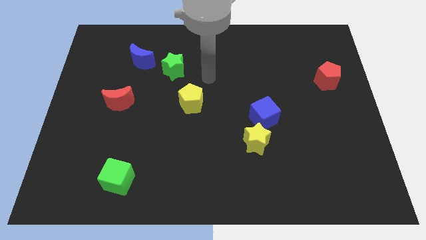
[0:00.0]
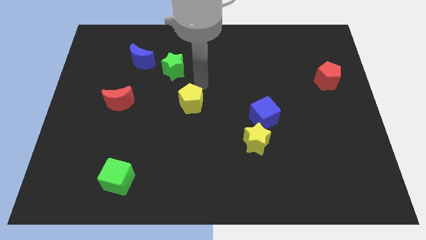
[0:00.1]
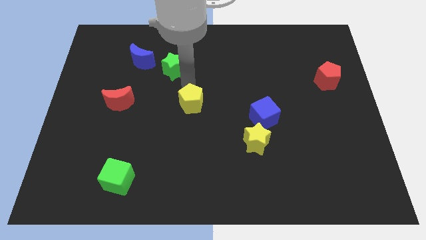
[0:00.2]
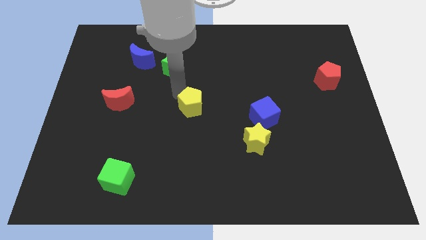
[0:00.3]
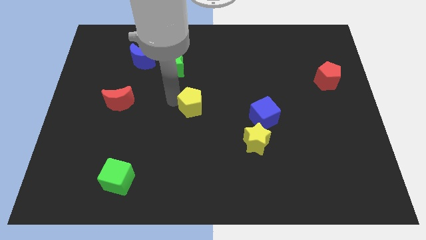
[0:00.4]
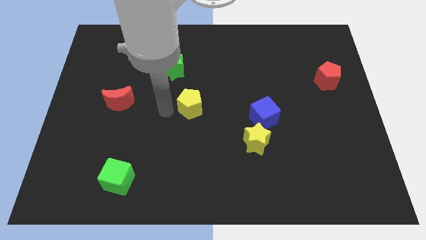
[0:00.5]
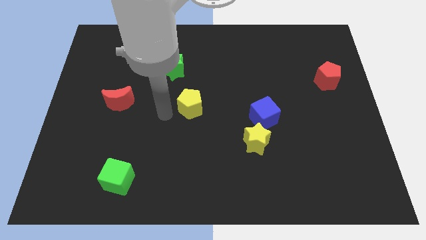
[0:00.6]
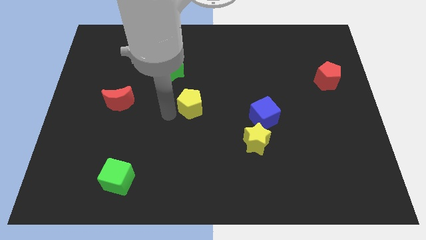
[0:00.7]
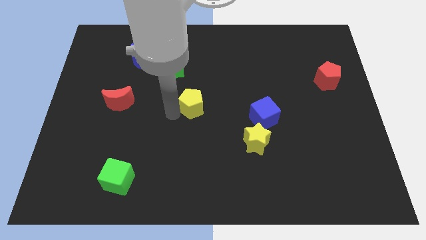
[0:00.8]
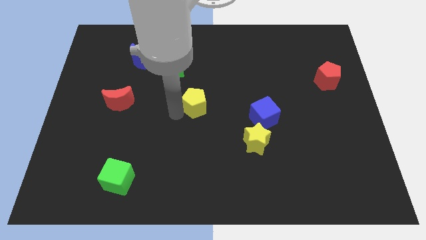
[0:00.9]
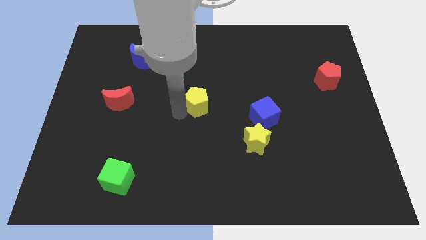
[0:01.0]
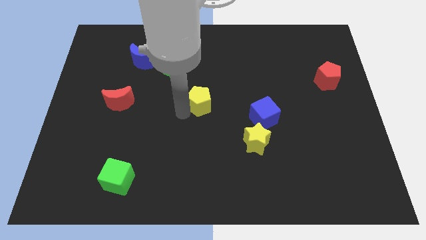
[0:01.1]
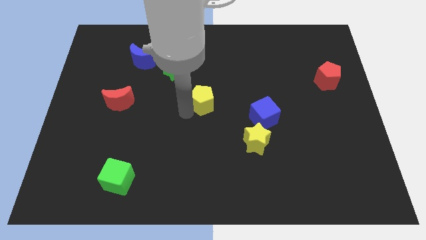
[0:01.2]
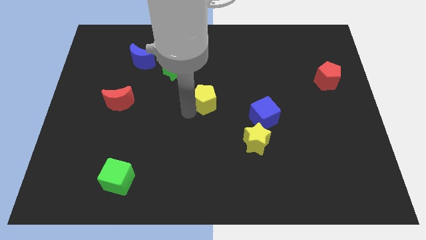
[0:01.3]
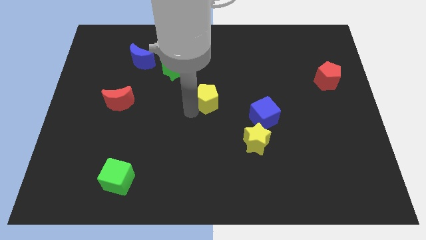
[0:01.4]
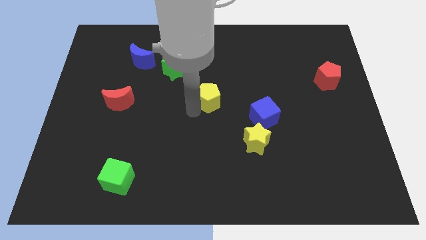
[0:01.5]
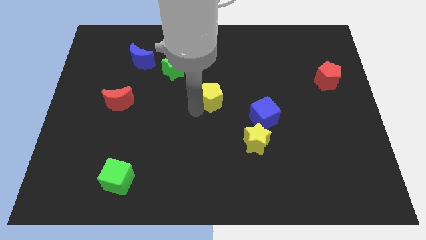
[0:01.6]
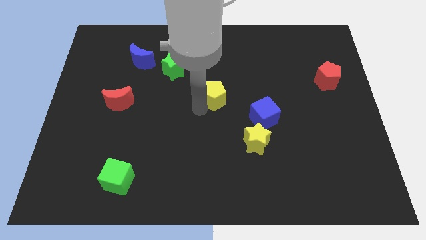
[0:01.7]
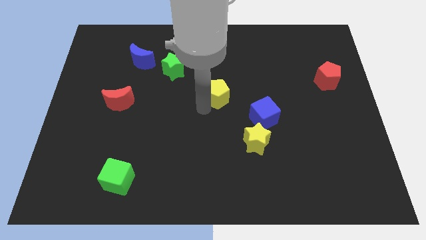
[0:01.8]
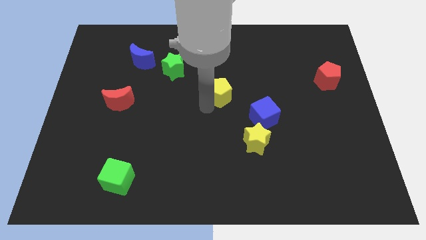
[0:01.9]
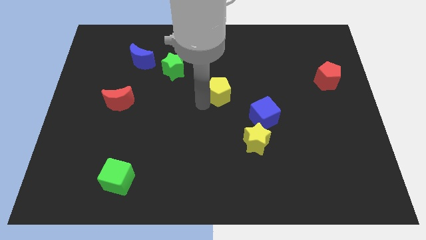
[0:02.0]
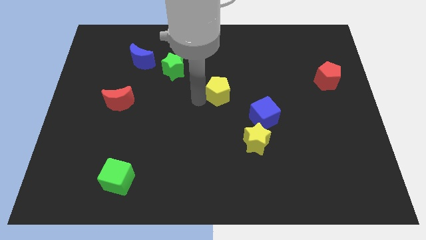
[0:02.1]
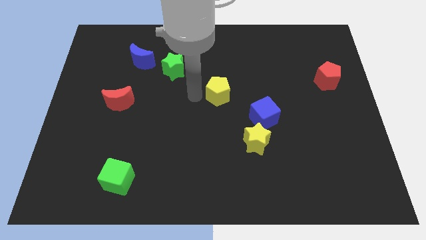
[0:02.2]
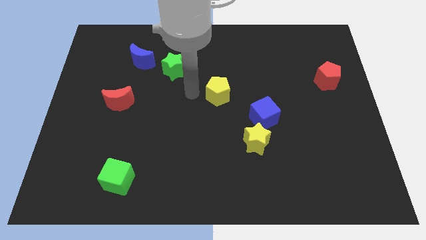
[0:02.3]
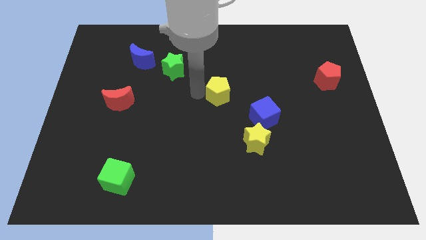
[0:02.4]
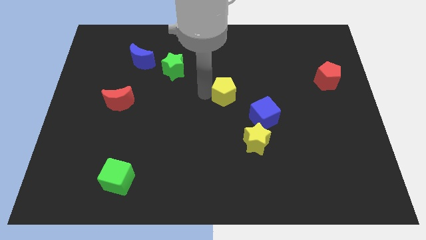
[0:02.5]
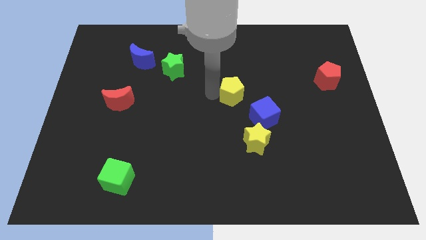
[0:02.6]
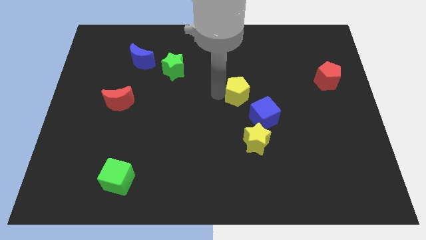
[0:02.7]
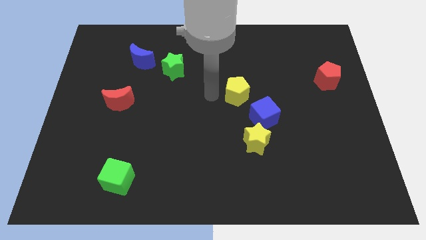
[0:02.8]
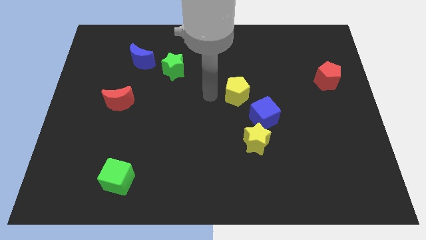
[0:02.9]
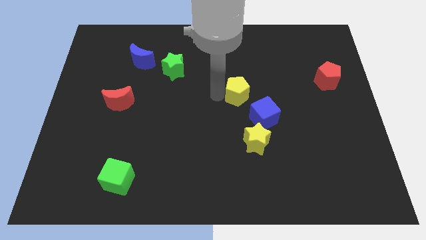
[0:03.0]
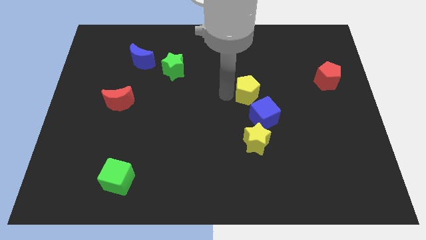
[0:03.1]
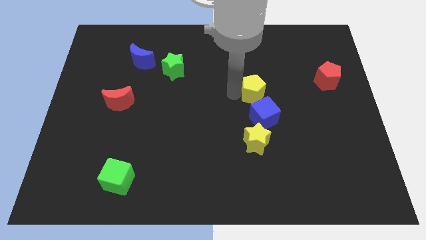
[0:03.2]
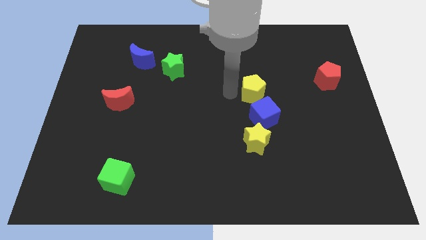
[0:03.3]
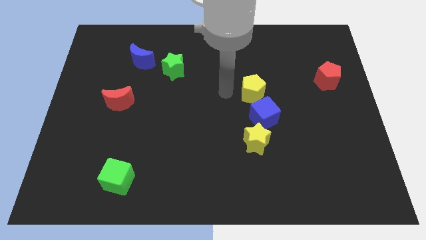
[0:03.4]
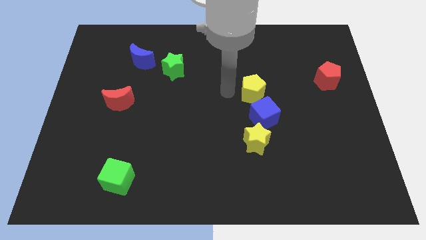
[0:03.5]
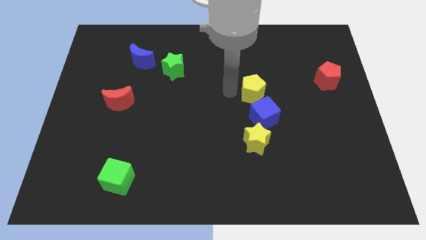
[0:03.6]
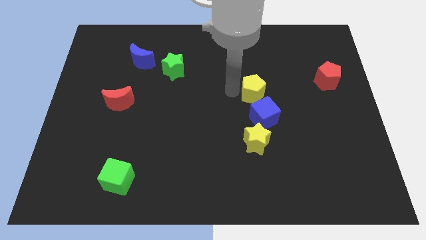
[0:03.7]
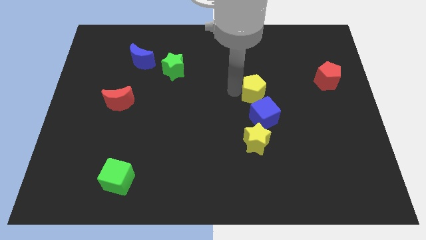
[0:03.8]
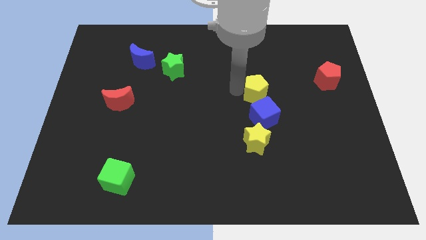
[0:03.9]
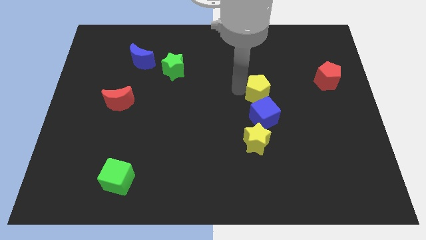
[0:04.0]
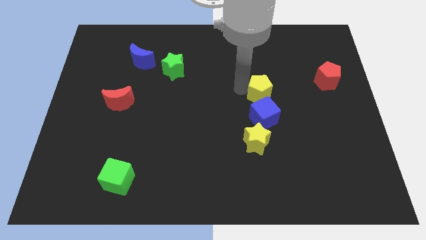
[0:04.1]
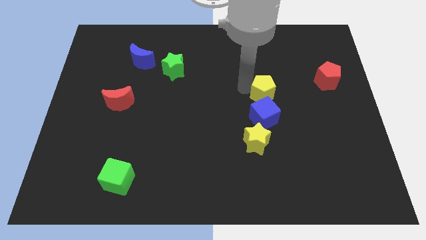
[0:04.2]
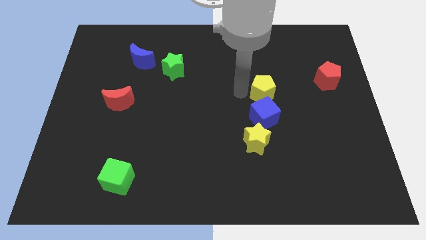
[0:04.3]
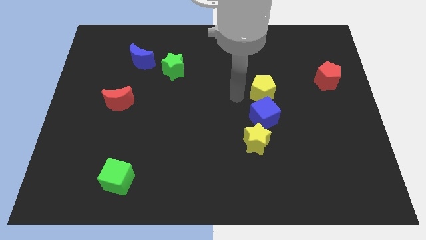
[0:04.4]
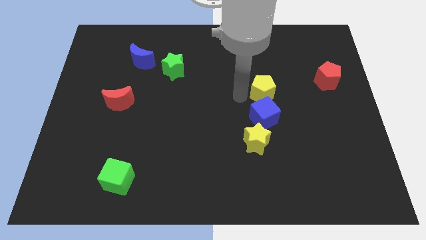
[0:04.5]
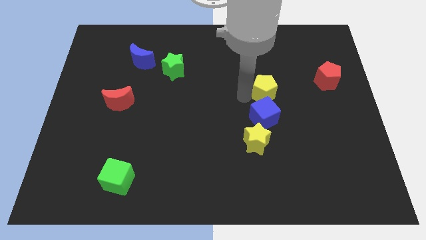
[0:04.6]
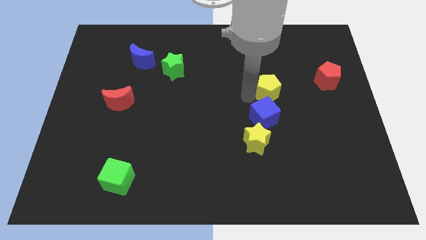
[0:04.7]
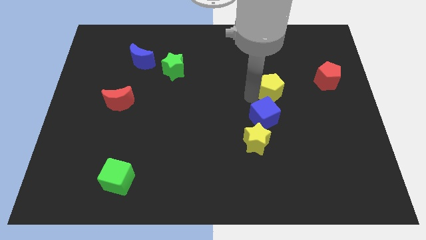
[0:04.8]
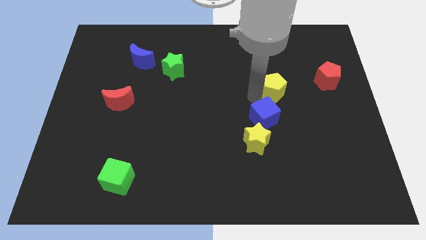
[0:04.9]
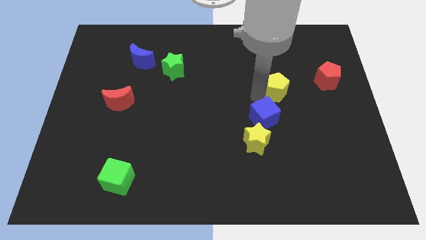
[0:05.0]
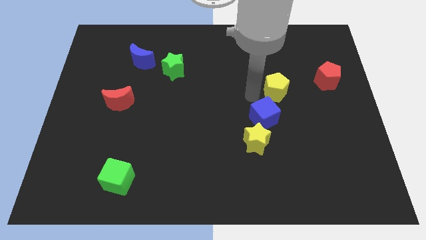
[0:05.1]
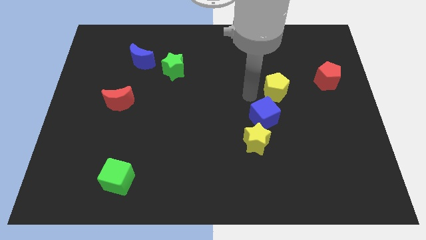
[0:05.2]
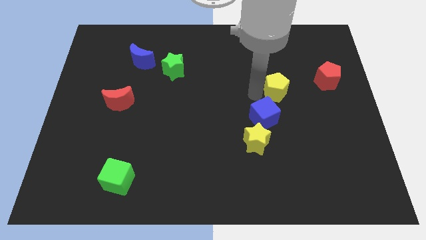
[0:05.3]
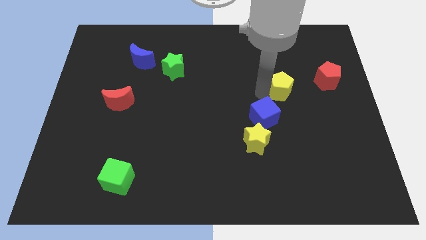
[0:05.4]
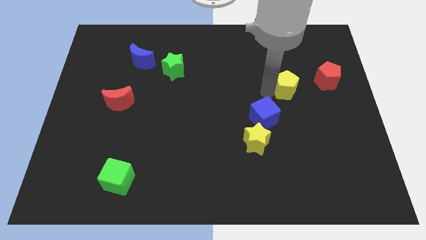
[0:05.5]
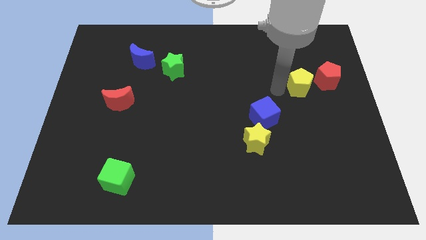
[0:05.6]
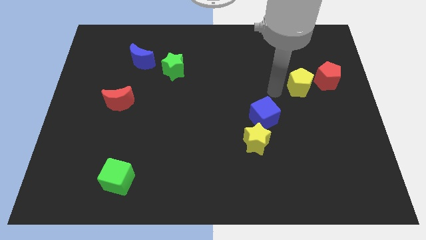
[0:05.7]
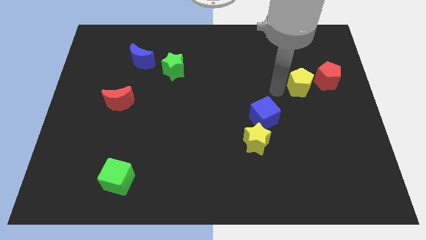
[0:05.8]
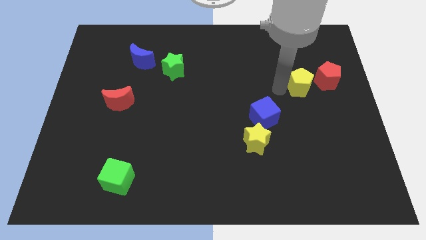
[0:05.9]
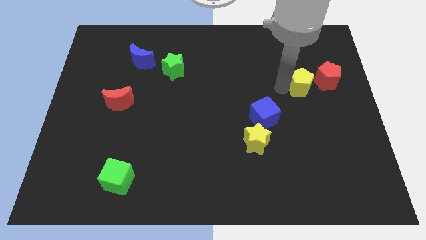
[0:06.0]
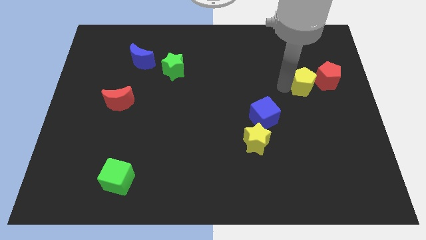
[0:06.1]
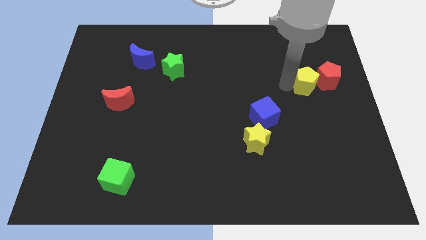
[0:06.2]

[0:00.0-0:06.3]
put the yellow pentagon close to the red pentagon
